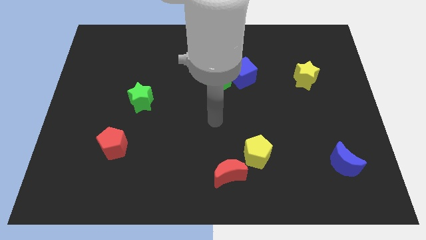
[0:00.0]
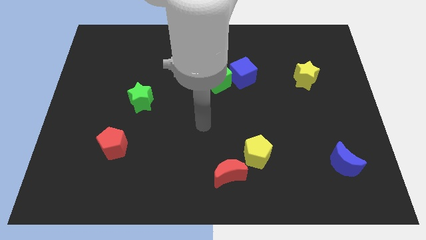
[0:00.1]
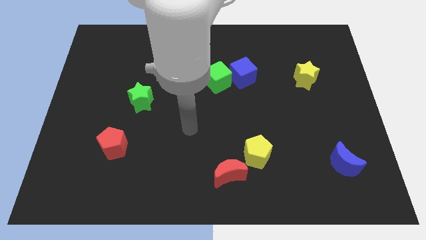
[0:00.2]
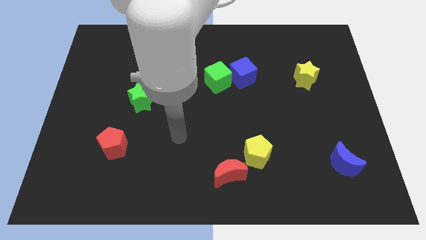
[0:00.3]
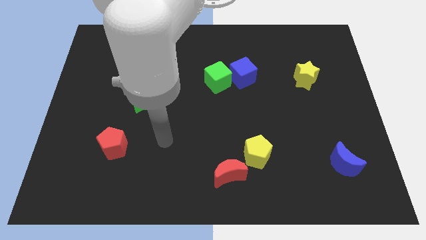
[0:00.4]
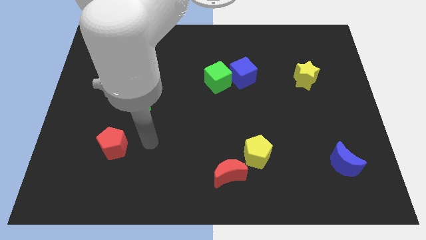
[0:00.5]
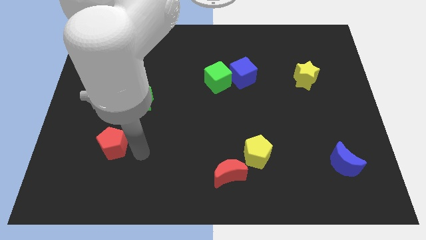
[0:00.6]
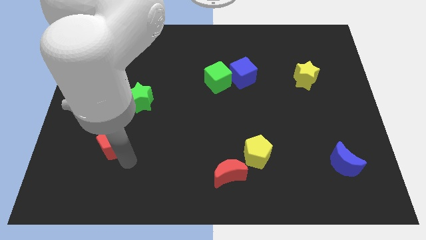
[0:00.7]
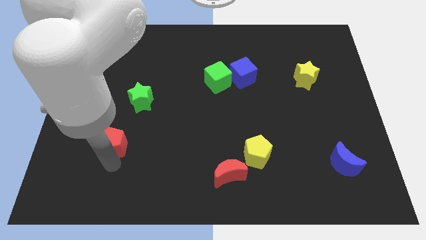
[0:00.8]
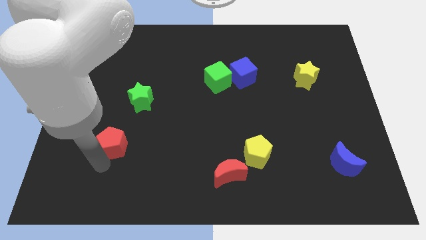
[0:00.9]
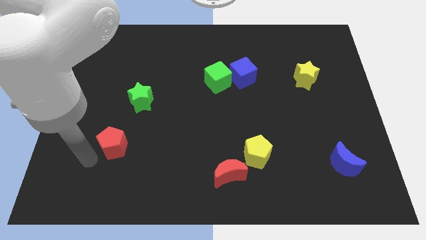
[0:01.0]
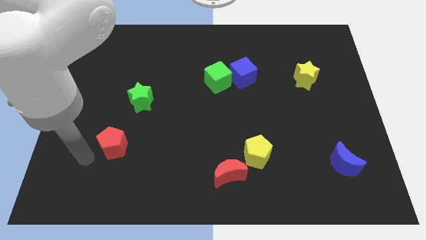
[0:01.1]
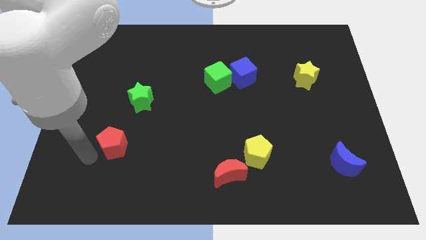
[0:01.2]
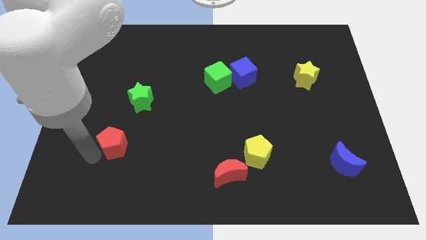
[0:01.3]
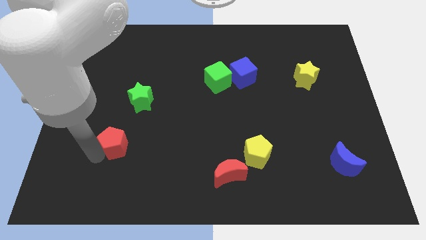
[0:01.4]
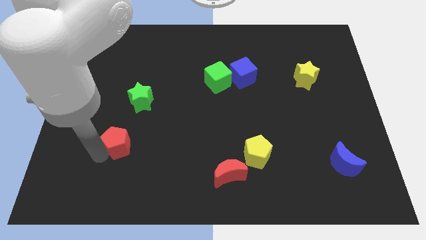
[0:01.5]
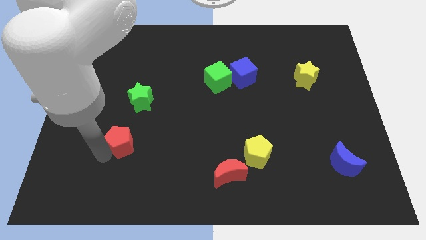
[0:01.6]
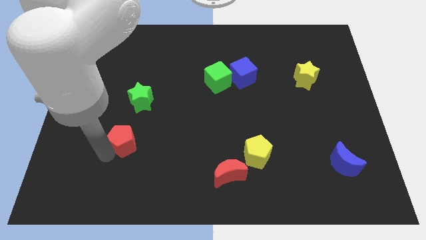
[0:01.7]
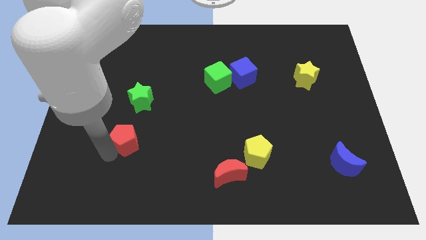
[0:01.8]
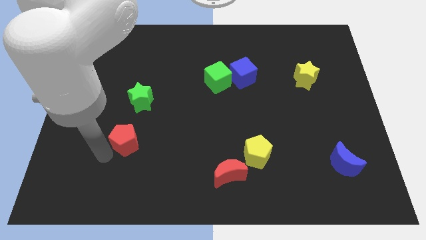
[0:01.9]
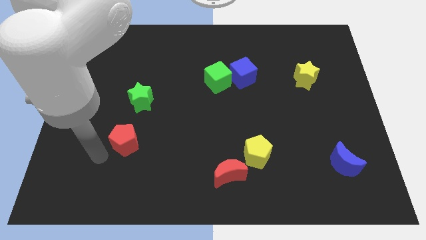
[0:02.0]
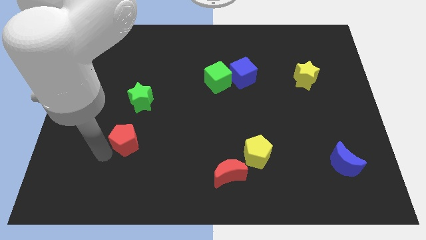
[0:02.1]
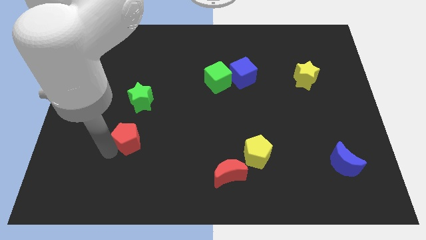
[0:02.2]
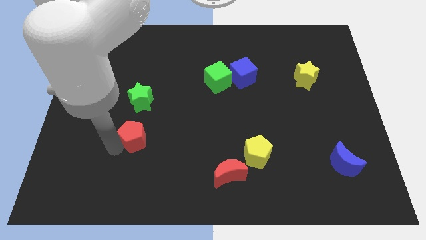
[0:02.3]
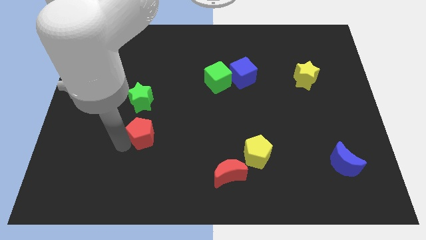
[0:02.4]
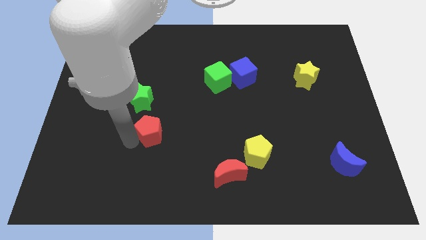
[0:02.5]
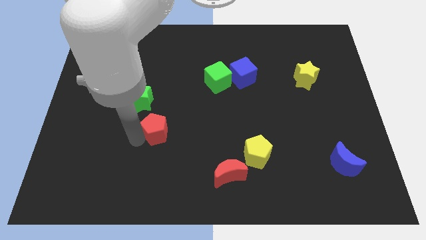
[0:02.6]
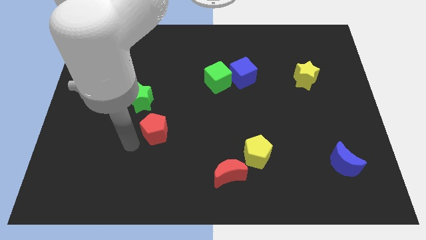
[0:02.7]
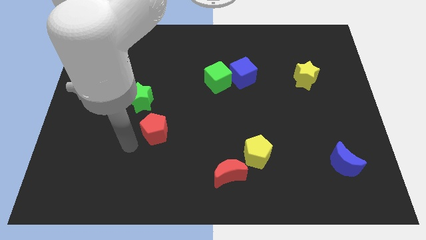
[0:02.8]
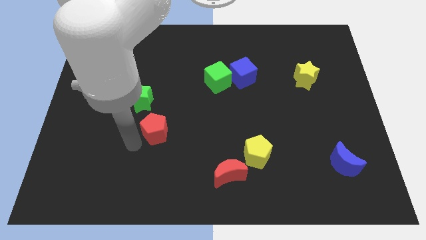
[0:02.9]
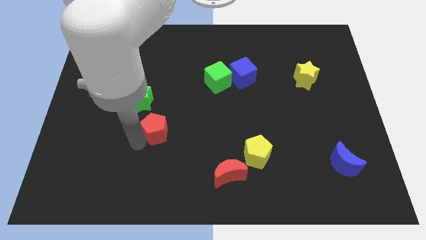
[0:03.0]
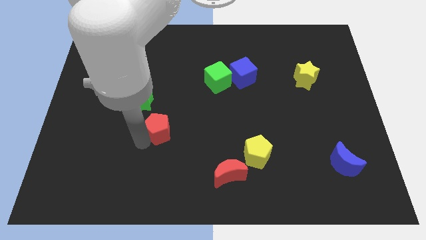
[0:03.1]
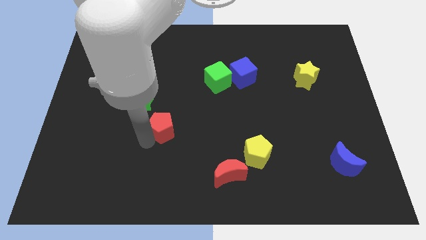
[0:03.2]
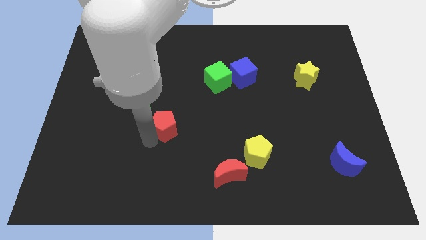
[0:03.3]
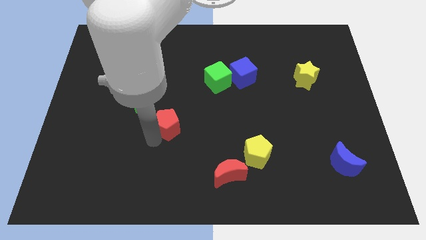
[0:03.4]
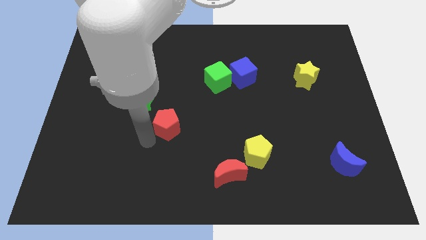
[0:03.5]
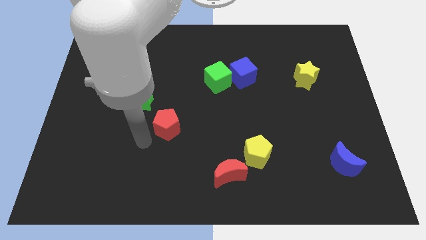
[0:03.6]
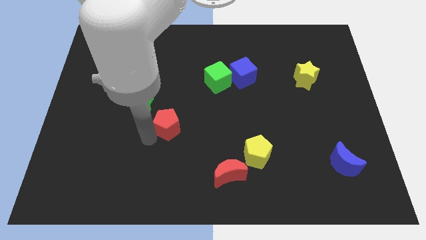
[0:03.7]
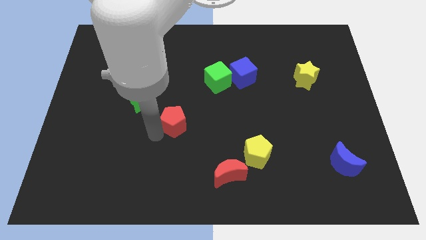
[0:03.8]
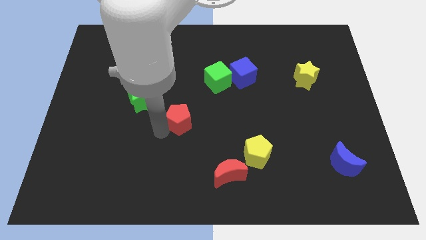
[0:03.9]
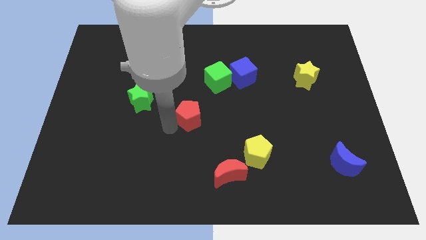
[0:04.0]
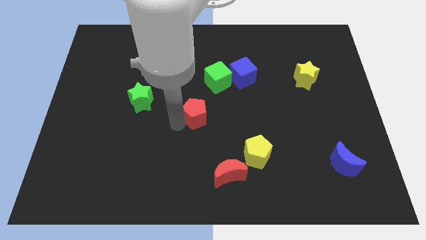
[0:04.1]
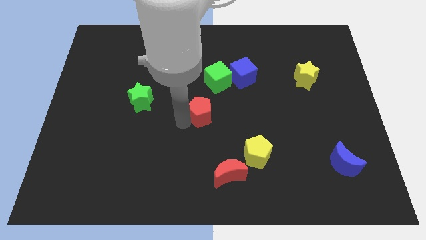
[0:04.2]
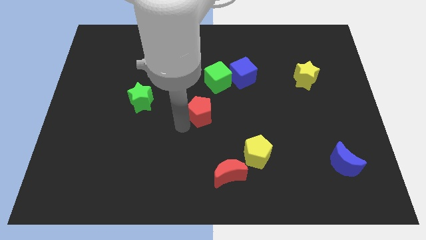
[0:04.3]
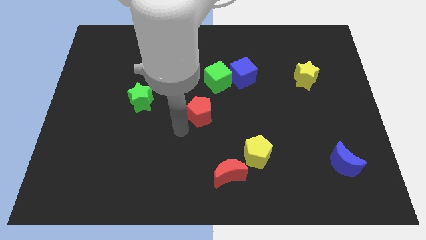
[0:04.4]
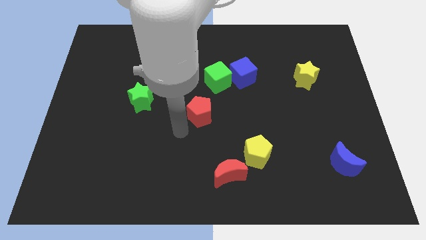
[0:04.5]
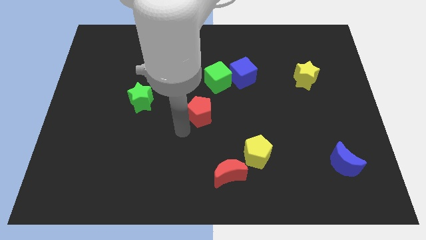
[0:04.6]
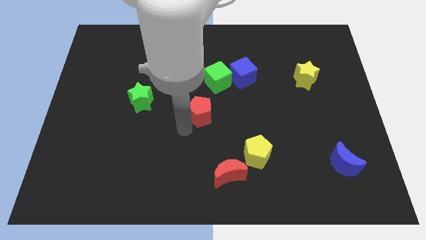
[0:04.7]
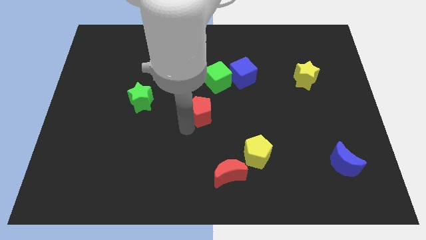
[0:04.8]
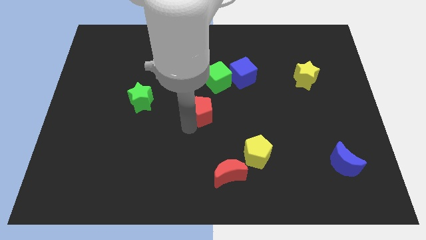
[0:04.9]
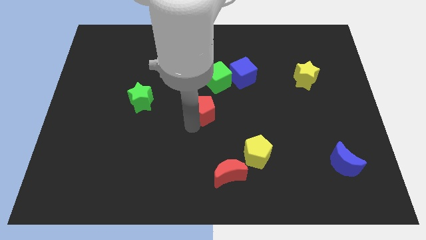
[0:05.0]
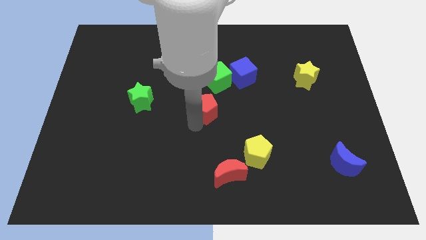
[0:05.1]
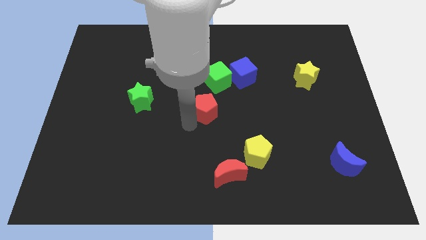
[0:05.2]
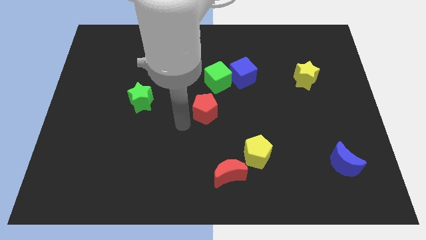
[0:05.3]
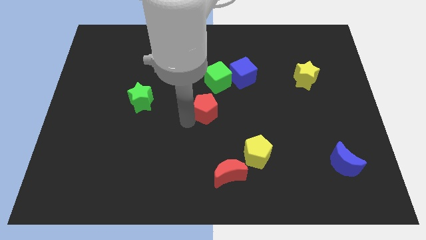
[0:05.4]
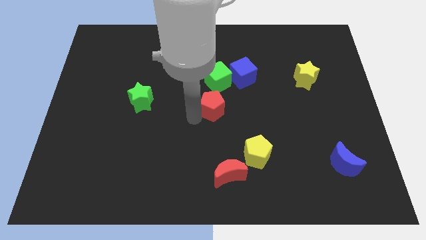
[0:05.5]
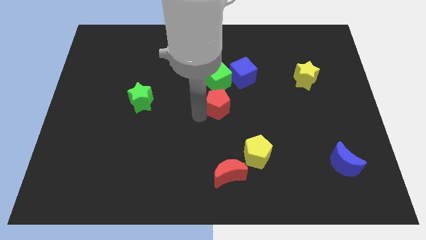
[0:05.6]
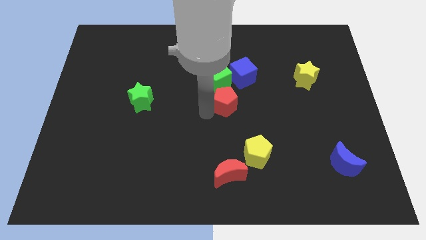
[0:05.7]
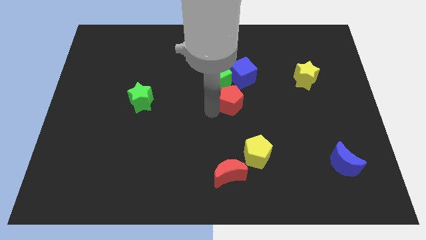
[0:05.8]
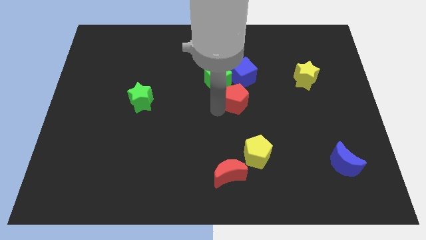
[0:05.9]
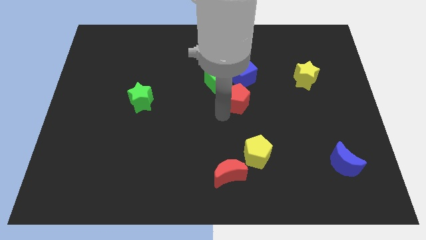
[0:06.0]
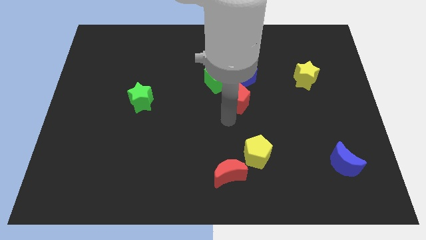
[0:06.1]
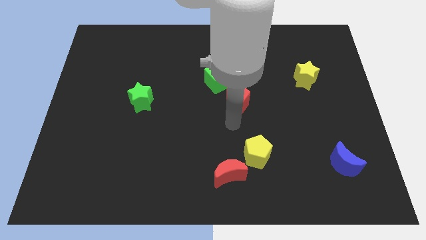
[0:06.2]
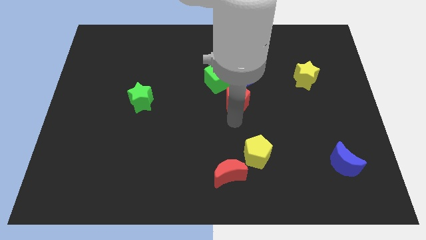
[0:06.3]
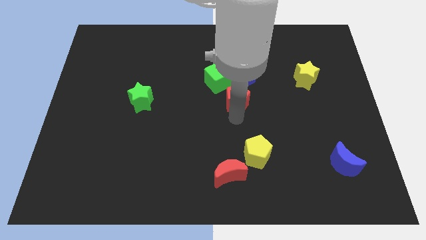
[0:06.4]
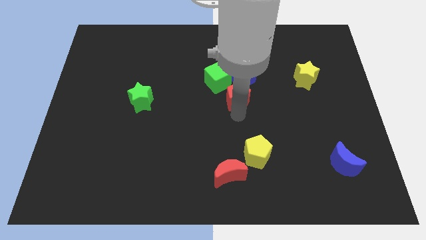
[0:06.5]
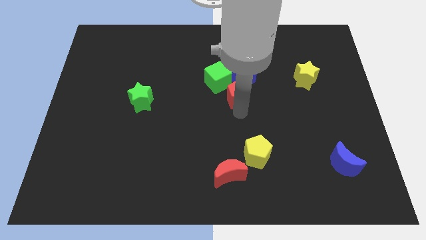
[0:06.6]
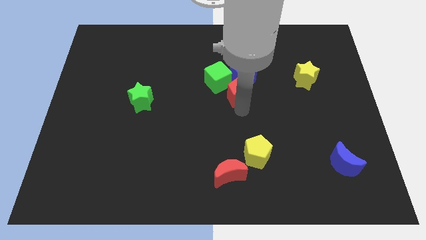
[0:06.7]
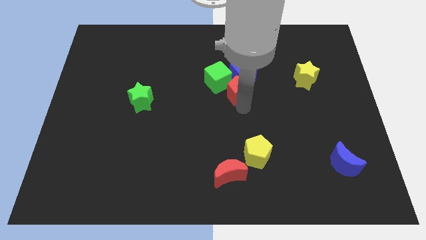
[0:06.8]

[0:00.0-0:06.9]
move the red pentagon close to the blue cube
